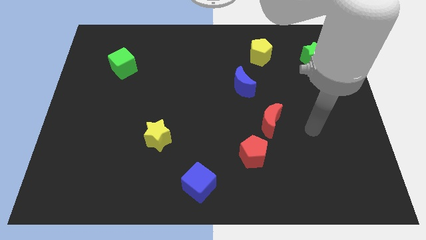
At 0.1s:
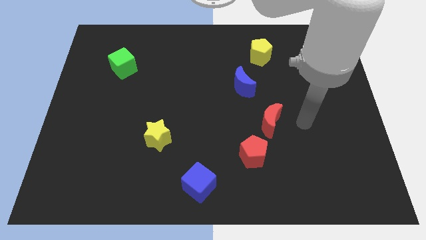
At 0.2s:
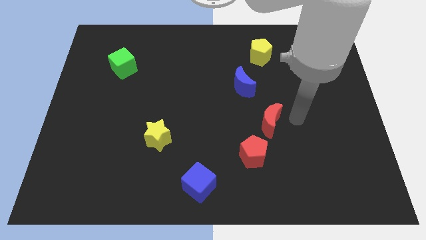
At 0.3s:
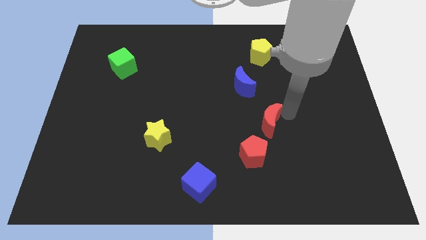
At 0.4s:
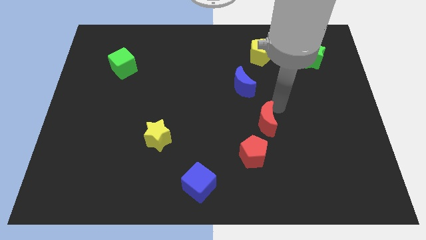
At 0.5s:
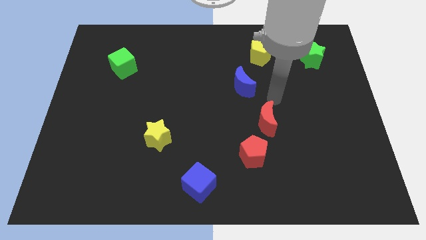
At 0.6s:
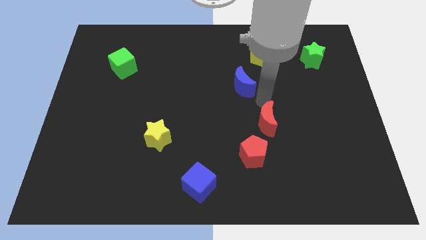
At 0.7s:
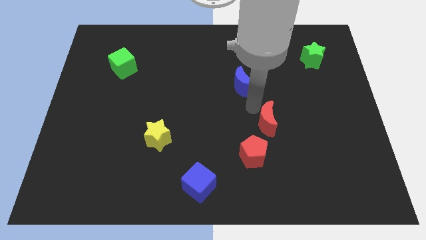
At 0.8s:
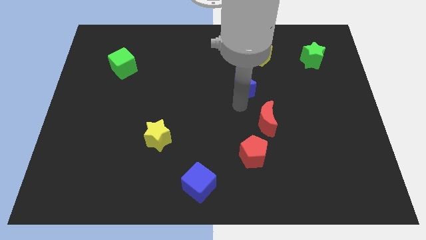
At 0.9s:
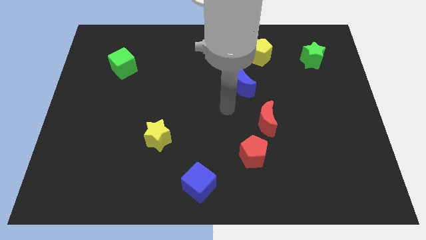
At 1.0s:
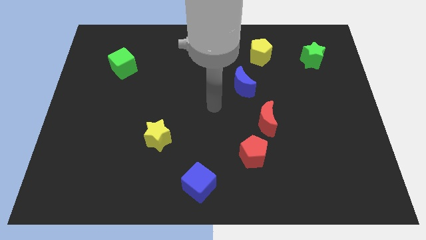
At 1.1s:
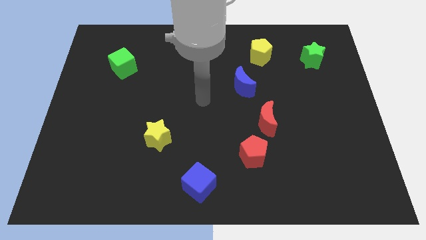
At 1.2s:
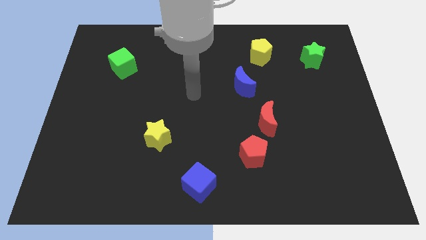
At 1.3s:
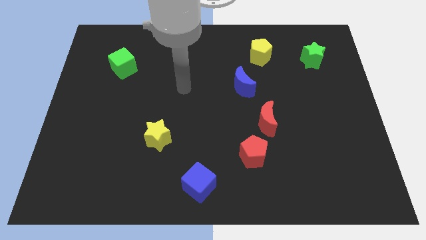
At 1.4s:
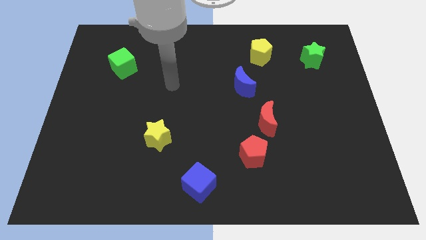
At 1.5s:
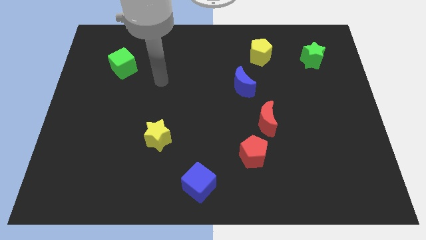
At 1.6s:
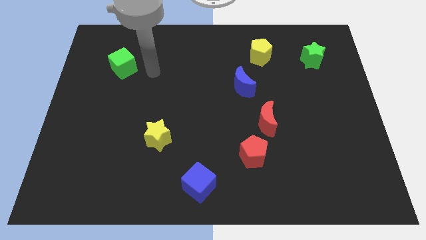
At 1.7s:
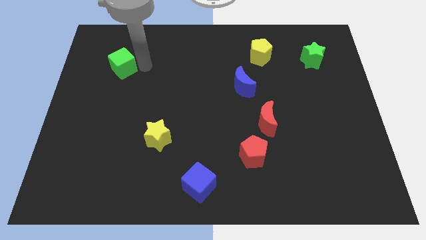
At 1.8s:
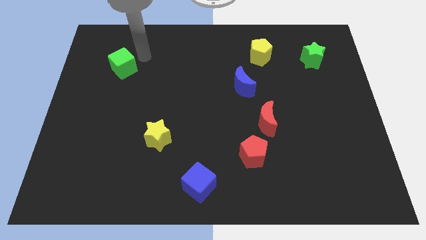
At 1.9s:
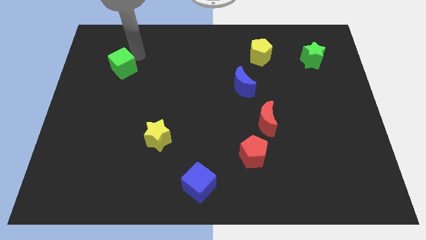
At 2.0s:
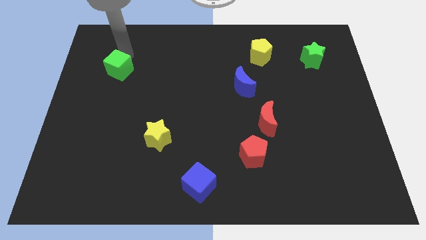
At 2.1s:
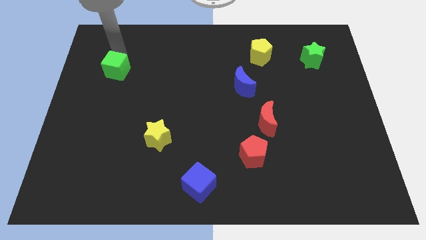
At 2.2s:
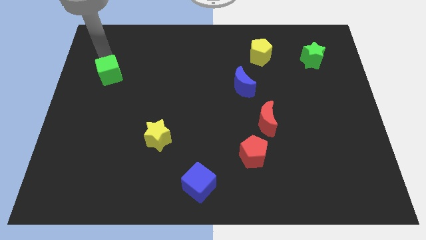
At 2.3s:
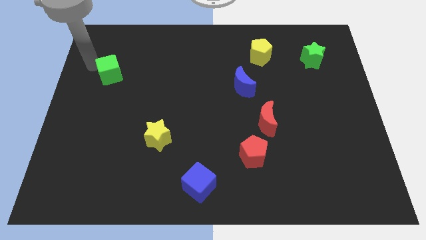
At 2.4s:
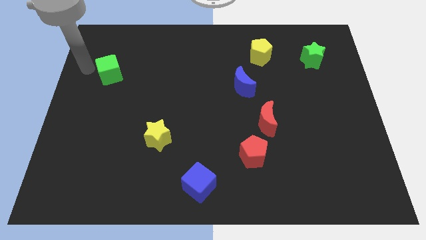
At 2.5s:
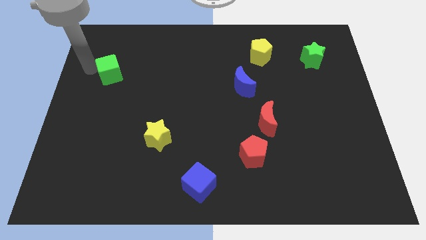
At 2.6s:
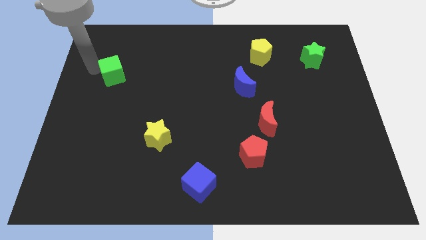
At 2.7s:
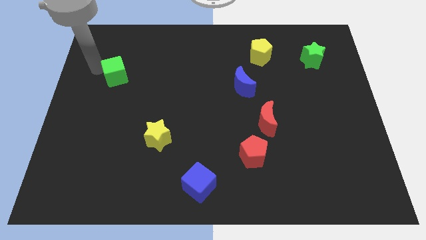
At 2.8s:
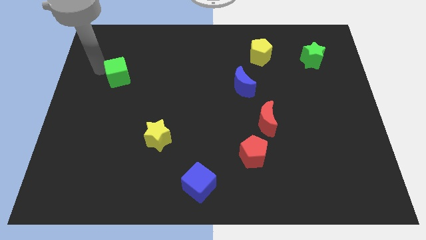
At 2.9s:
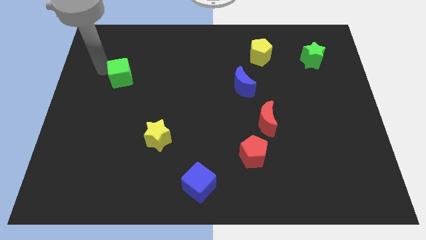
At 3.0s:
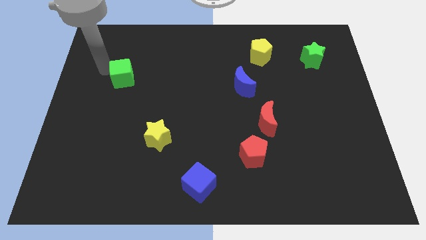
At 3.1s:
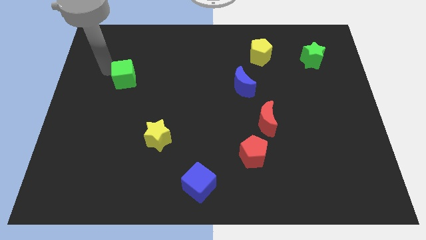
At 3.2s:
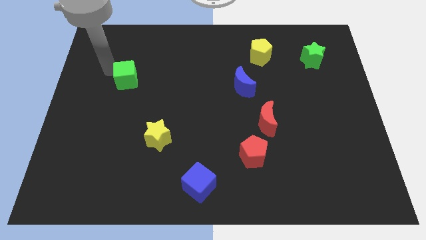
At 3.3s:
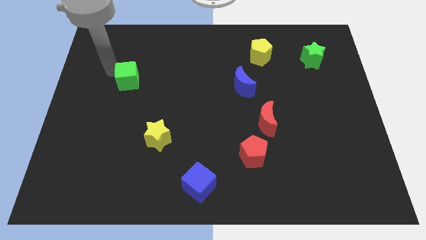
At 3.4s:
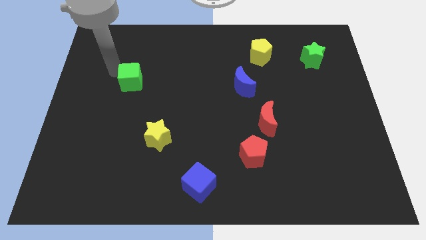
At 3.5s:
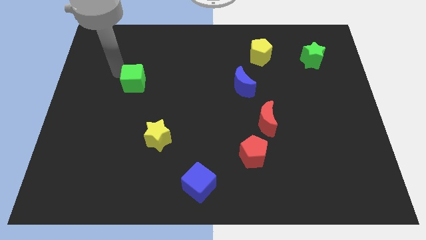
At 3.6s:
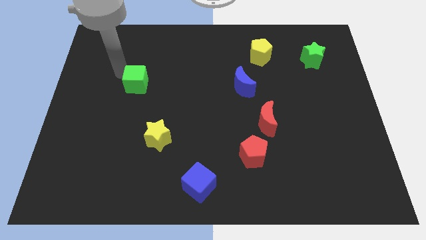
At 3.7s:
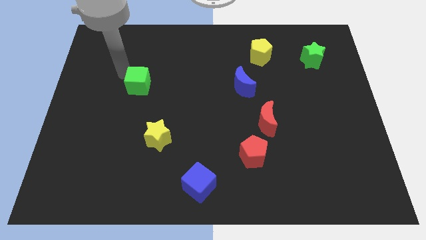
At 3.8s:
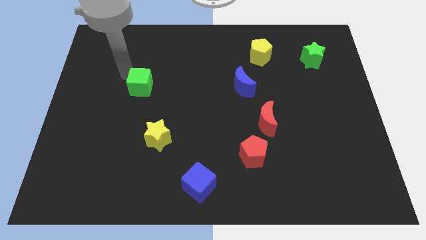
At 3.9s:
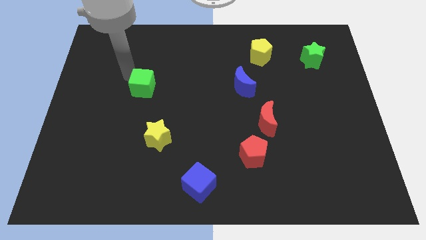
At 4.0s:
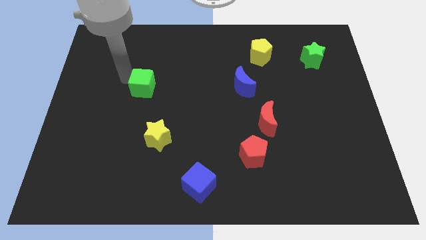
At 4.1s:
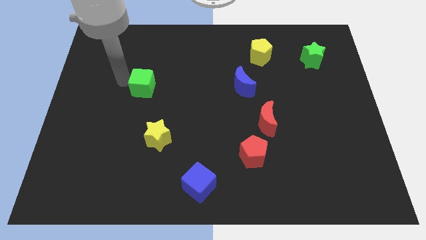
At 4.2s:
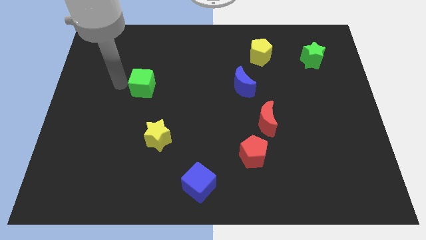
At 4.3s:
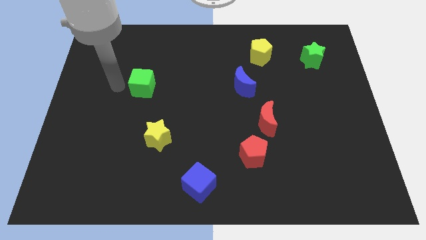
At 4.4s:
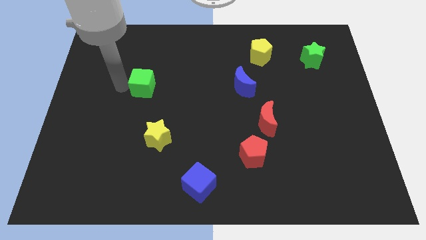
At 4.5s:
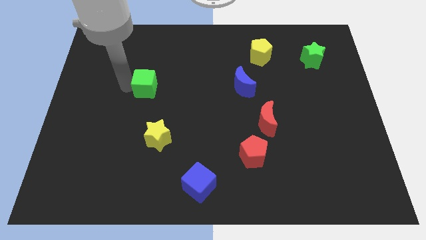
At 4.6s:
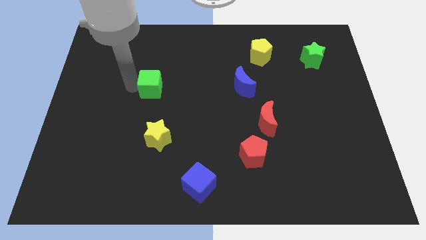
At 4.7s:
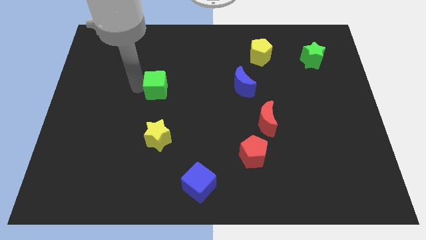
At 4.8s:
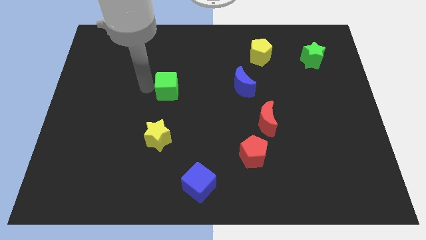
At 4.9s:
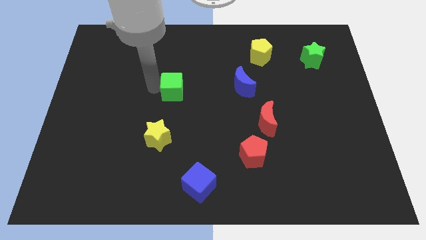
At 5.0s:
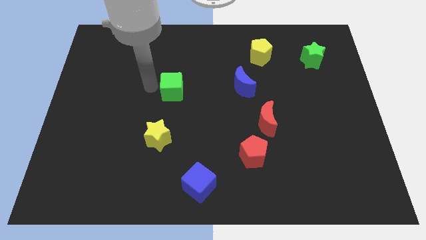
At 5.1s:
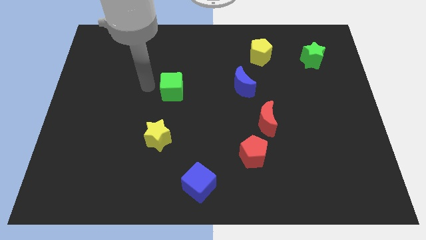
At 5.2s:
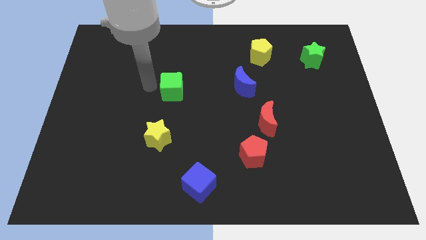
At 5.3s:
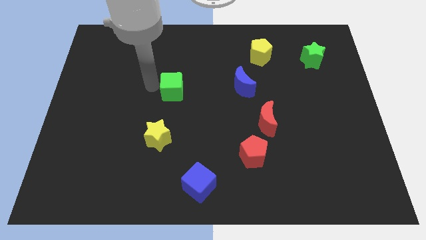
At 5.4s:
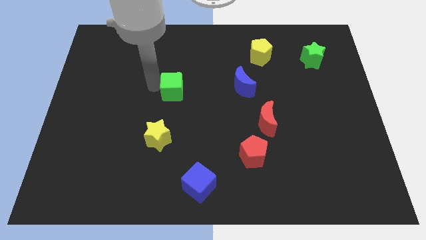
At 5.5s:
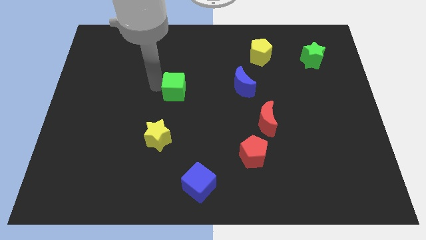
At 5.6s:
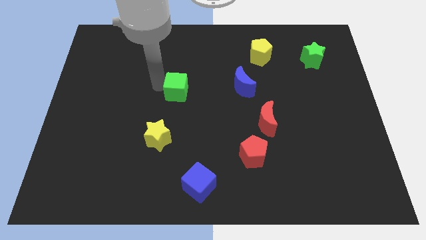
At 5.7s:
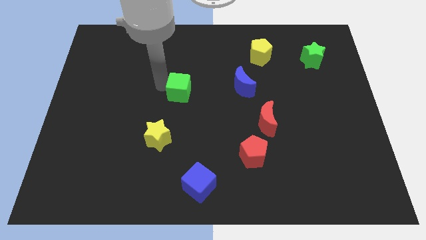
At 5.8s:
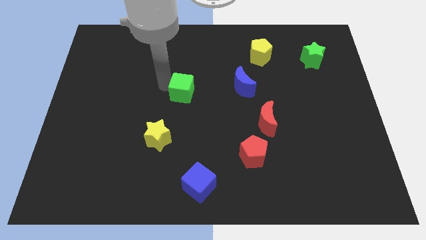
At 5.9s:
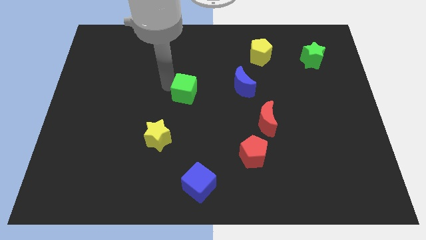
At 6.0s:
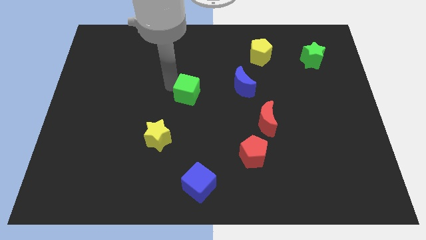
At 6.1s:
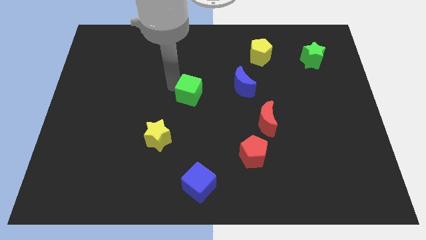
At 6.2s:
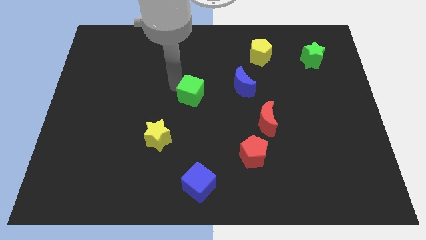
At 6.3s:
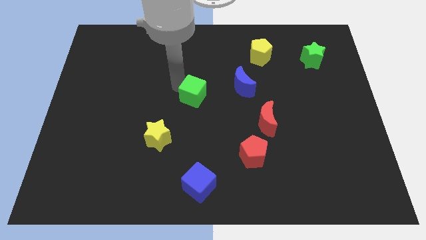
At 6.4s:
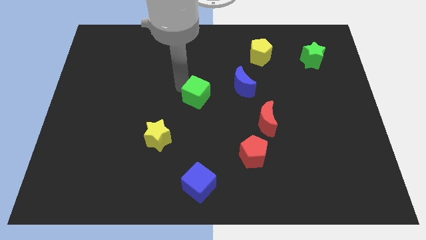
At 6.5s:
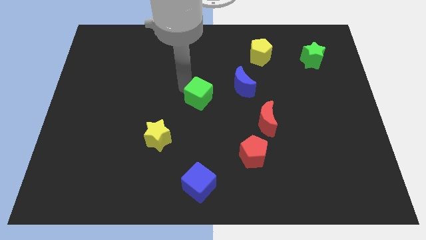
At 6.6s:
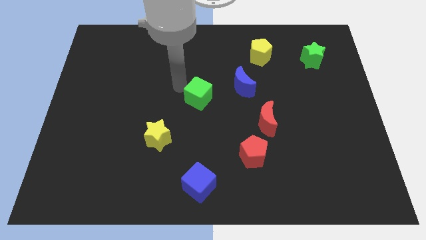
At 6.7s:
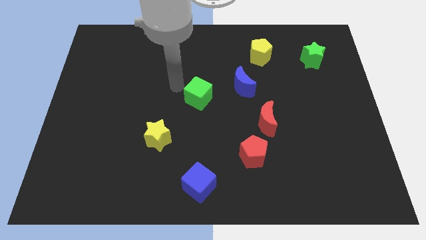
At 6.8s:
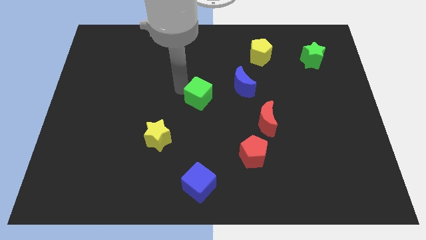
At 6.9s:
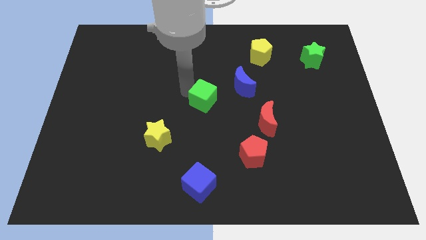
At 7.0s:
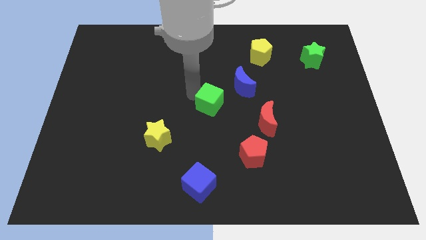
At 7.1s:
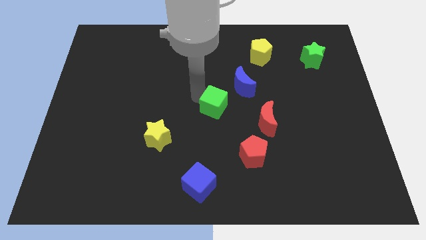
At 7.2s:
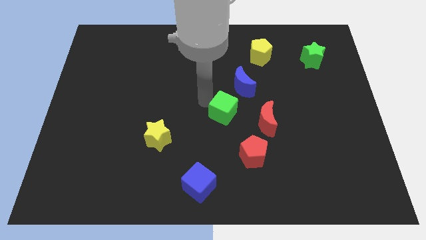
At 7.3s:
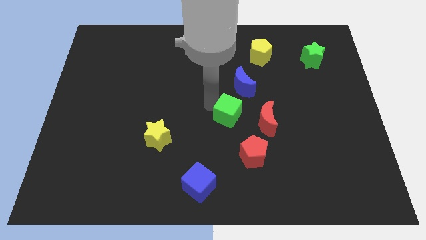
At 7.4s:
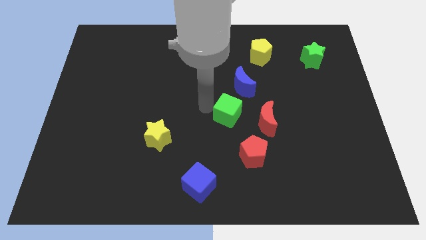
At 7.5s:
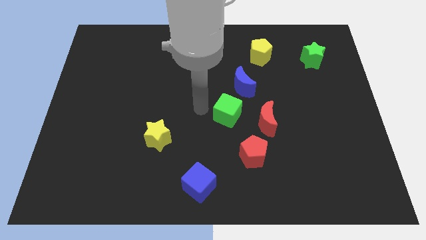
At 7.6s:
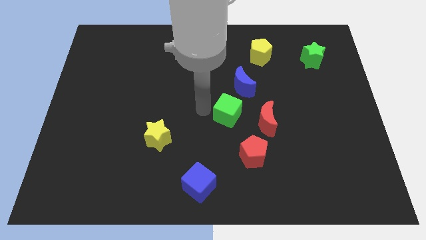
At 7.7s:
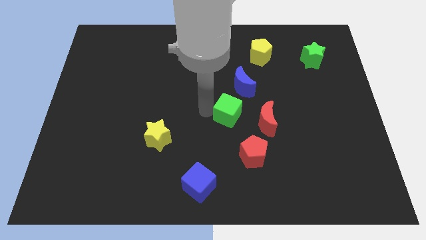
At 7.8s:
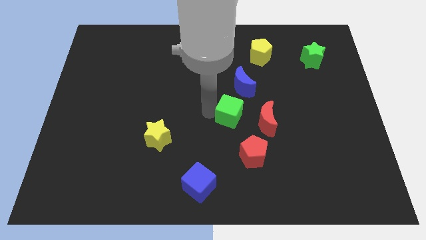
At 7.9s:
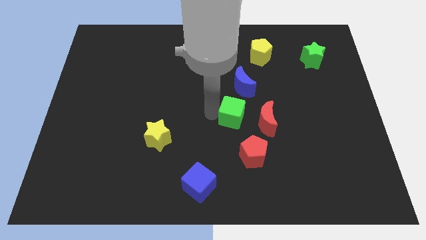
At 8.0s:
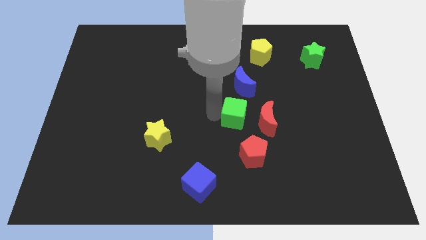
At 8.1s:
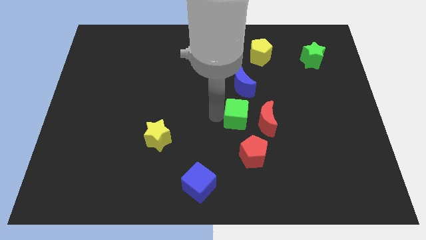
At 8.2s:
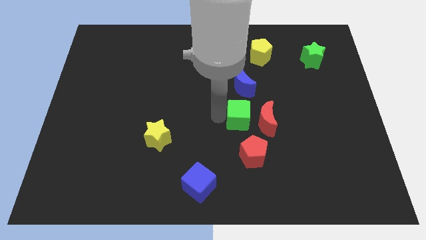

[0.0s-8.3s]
push the green cube towards the red moon
